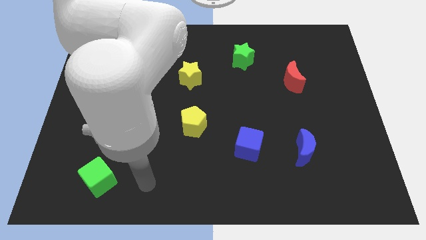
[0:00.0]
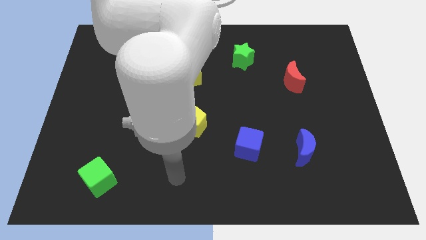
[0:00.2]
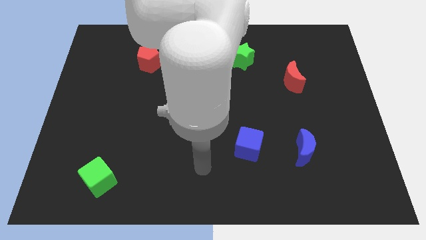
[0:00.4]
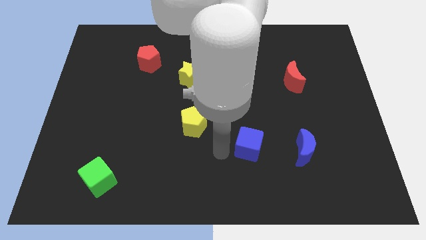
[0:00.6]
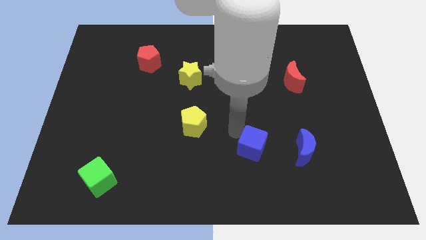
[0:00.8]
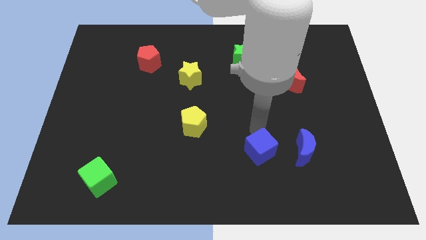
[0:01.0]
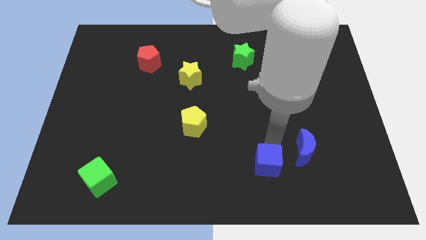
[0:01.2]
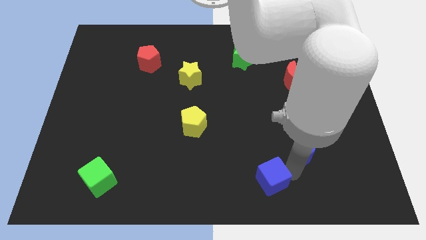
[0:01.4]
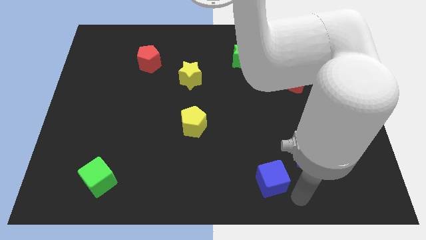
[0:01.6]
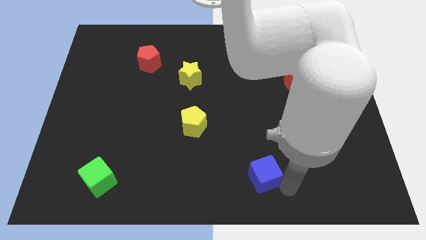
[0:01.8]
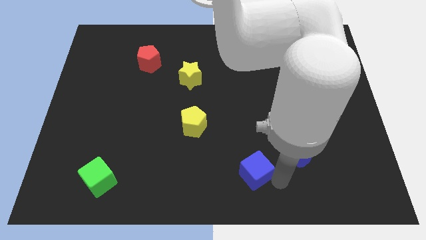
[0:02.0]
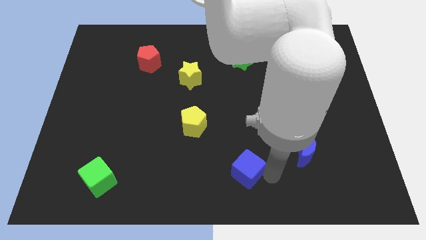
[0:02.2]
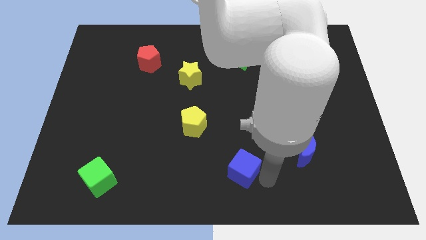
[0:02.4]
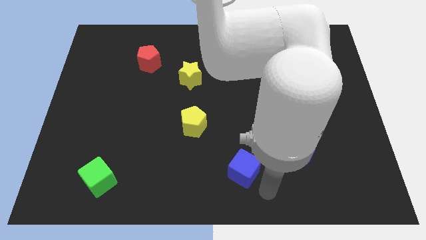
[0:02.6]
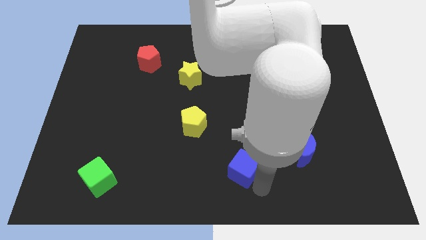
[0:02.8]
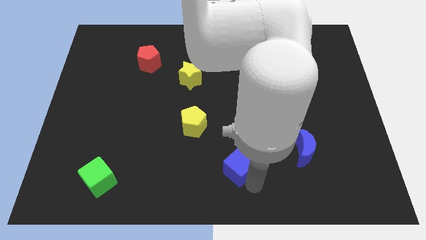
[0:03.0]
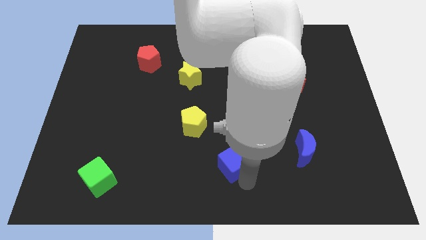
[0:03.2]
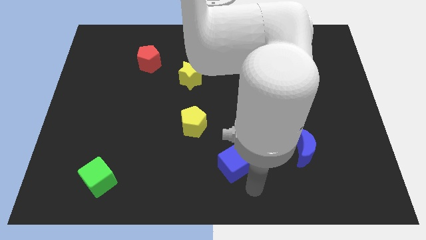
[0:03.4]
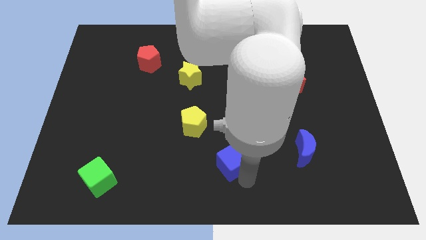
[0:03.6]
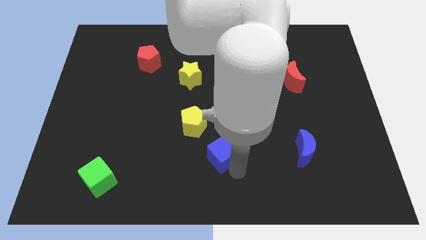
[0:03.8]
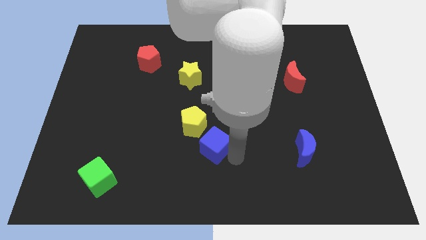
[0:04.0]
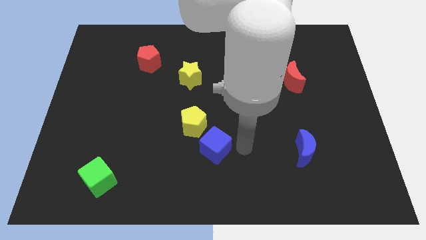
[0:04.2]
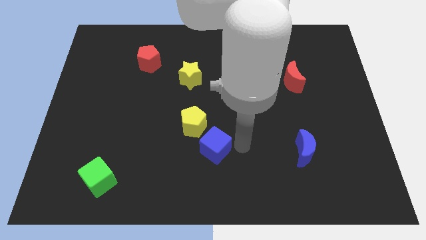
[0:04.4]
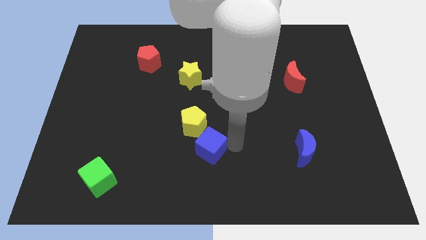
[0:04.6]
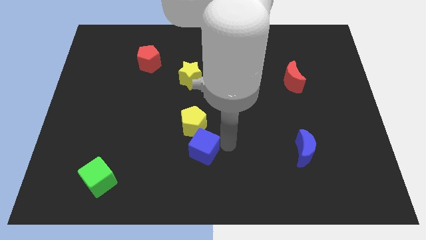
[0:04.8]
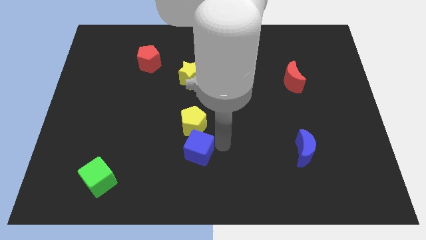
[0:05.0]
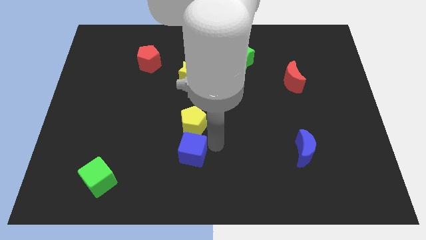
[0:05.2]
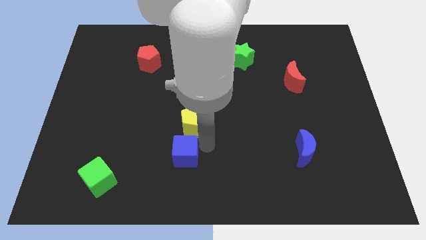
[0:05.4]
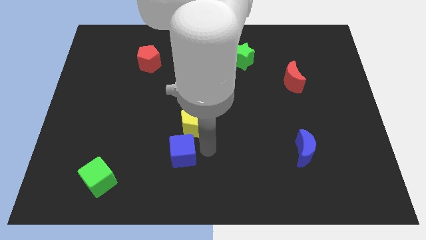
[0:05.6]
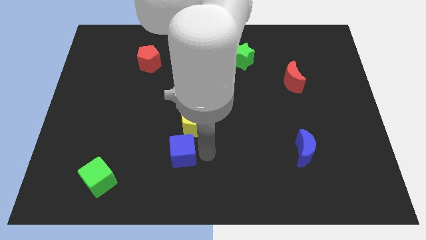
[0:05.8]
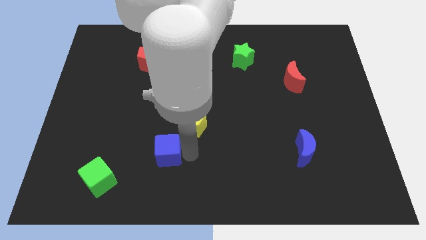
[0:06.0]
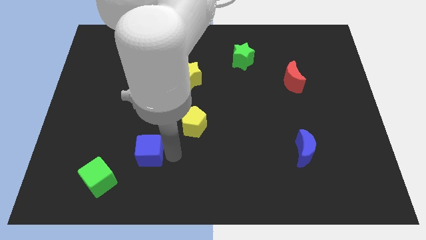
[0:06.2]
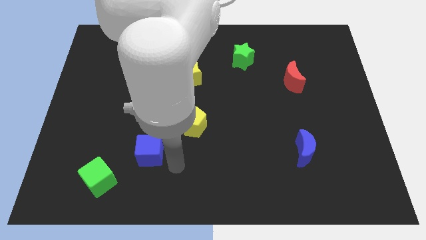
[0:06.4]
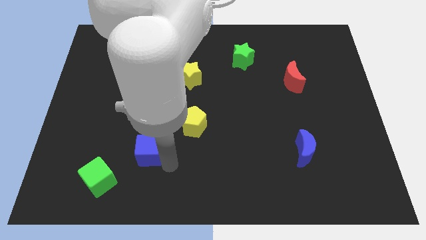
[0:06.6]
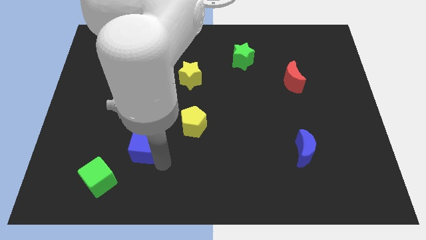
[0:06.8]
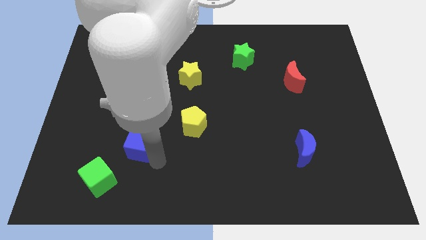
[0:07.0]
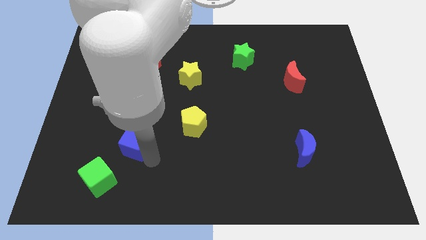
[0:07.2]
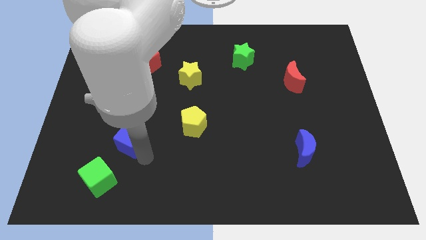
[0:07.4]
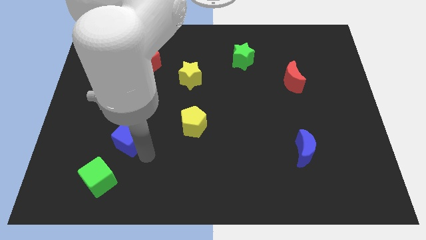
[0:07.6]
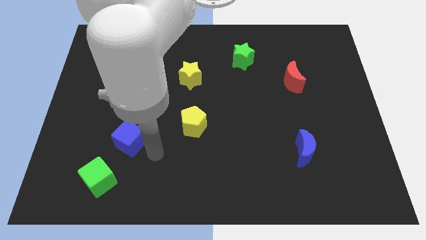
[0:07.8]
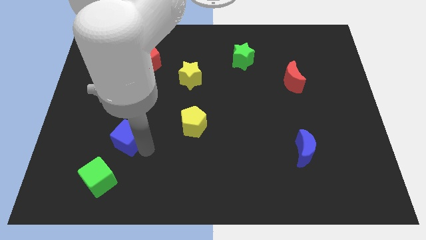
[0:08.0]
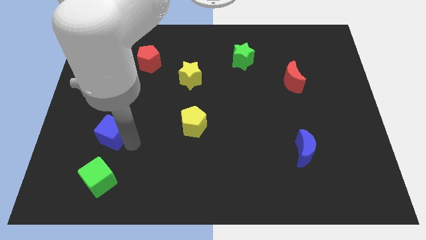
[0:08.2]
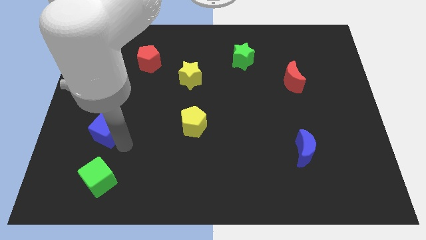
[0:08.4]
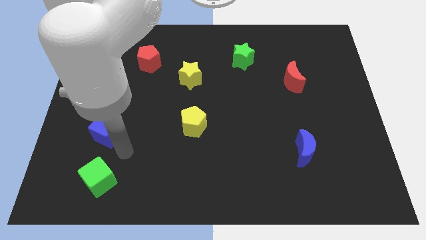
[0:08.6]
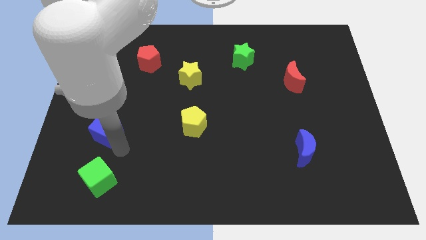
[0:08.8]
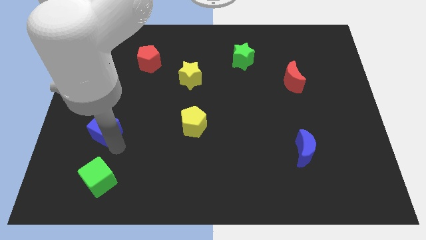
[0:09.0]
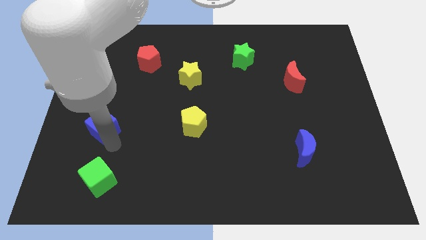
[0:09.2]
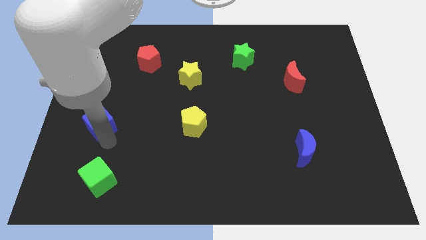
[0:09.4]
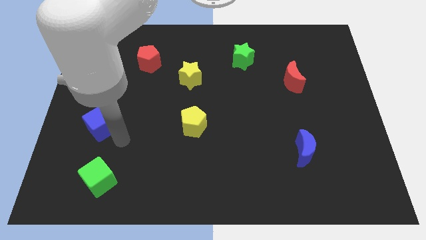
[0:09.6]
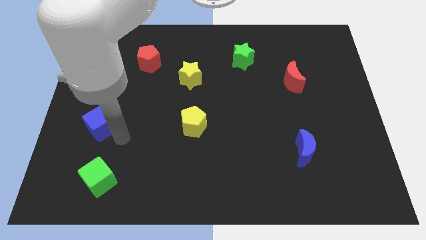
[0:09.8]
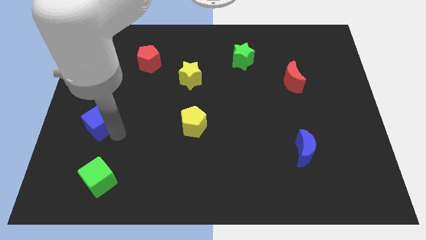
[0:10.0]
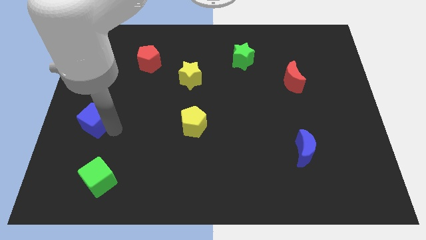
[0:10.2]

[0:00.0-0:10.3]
push the blue cube to the left side of the board
